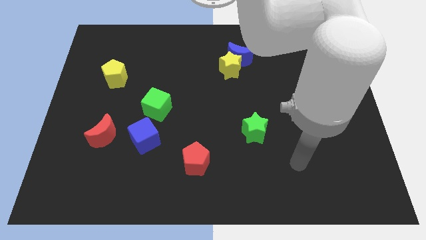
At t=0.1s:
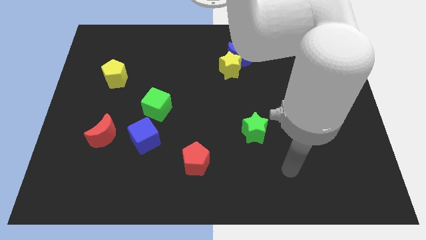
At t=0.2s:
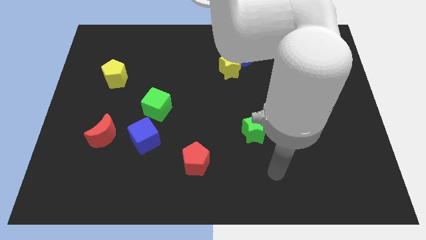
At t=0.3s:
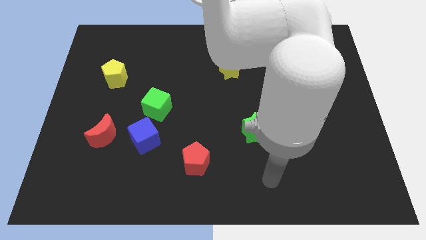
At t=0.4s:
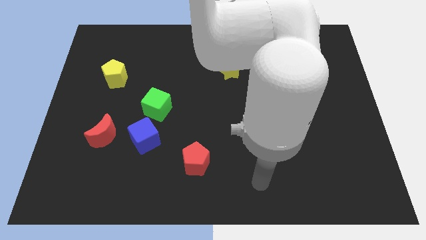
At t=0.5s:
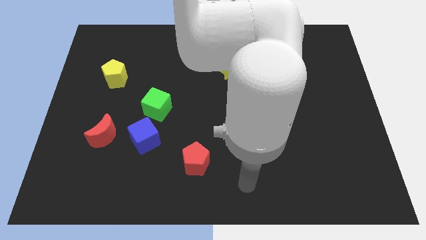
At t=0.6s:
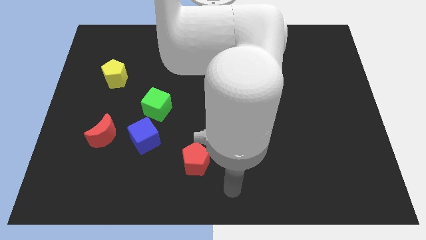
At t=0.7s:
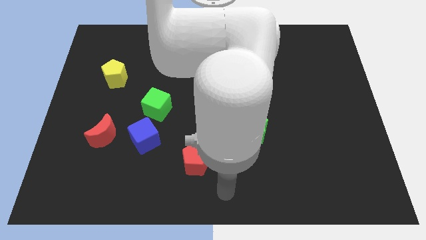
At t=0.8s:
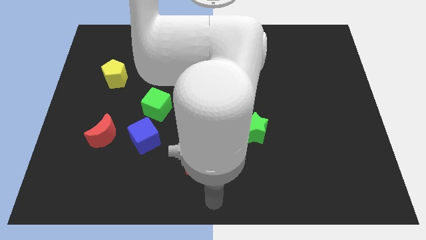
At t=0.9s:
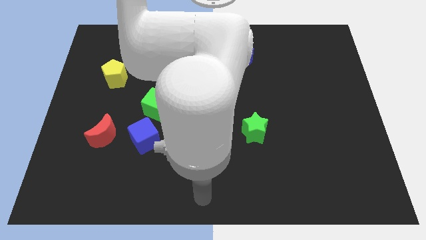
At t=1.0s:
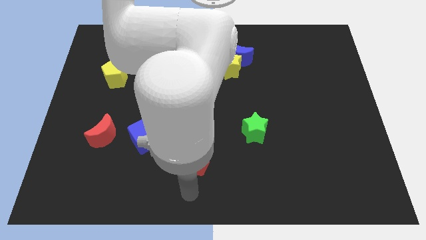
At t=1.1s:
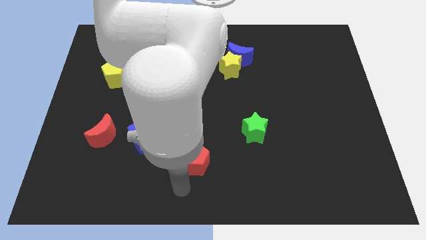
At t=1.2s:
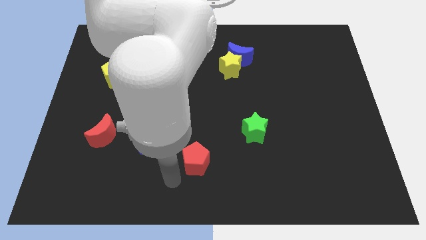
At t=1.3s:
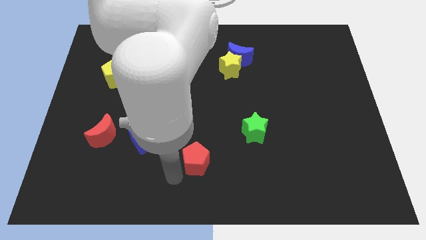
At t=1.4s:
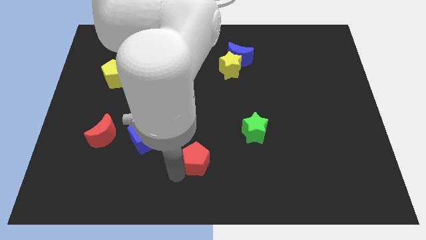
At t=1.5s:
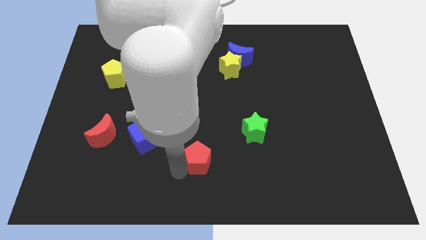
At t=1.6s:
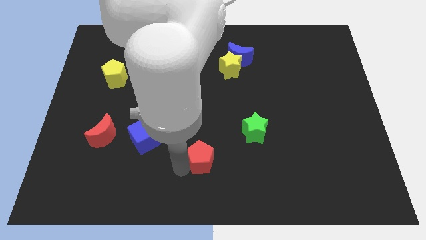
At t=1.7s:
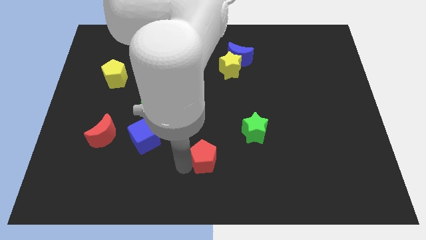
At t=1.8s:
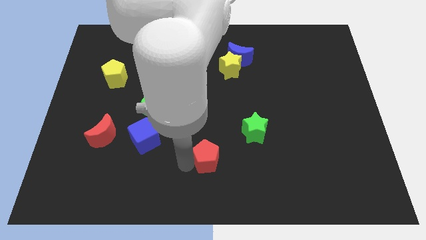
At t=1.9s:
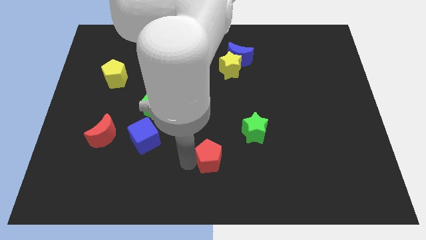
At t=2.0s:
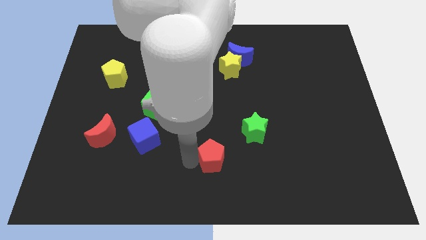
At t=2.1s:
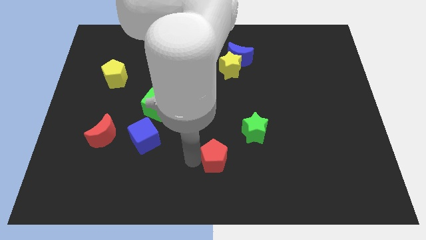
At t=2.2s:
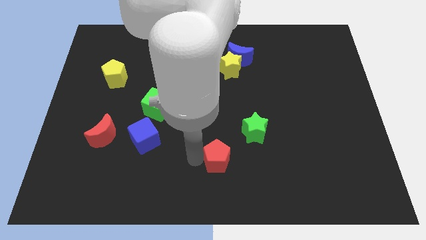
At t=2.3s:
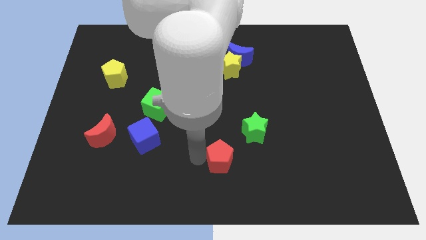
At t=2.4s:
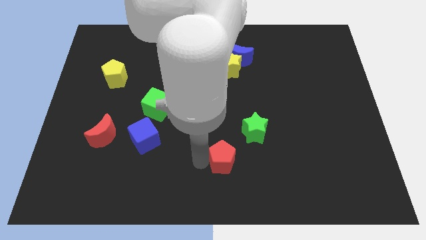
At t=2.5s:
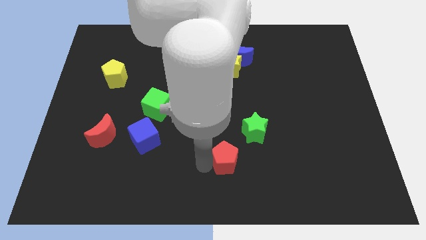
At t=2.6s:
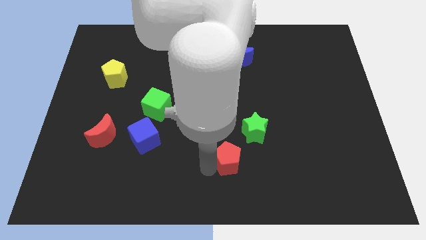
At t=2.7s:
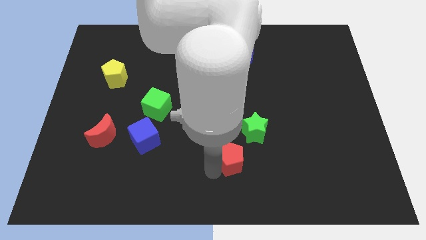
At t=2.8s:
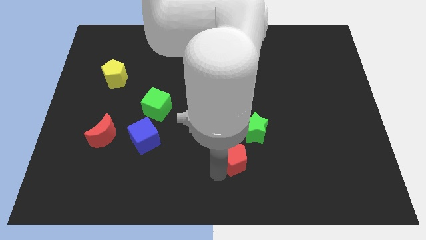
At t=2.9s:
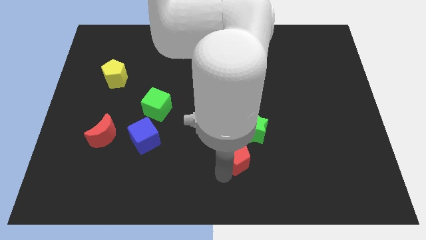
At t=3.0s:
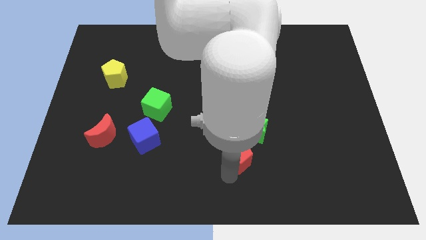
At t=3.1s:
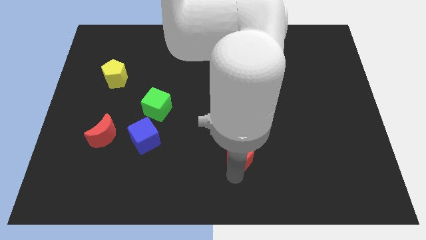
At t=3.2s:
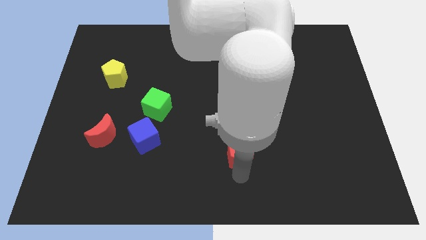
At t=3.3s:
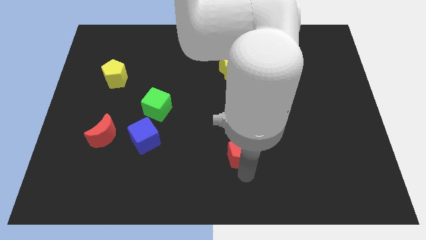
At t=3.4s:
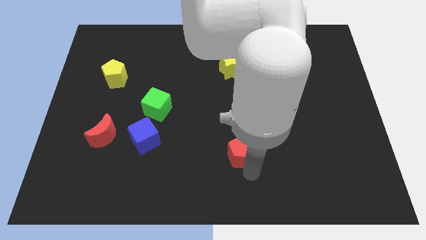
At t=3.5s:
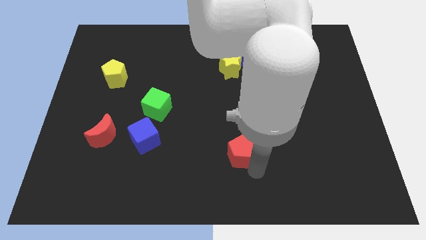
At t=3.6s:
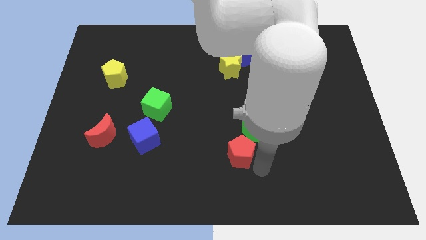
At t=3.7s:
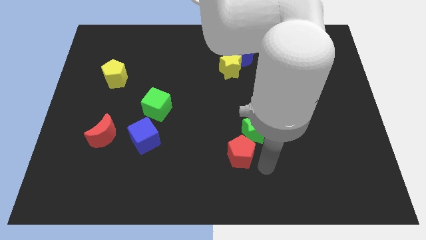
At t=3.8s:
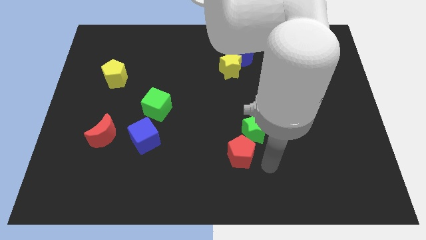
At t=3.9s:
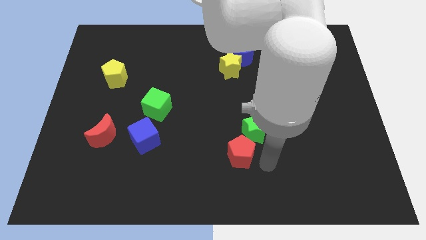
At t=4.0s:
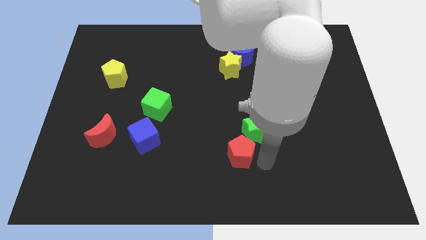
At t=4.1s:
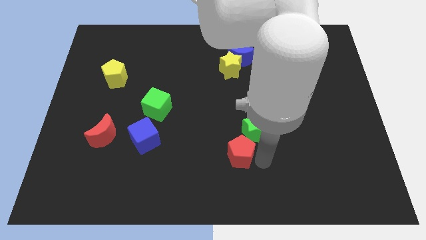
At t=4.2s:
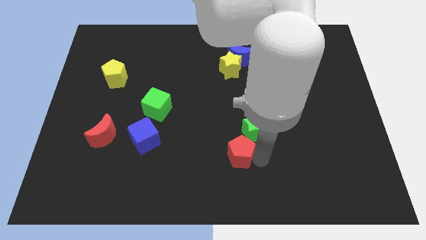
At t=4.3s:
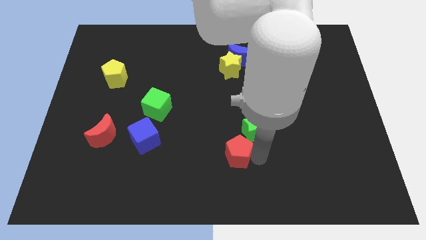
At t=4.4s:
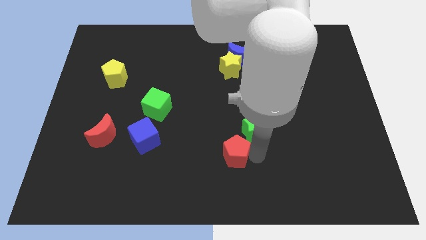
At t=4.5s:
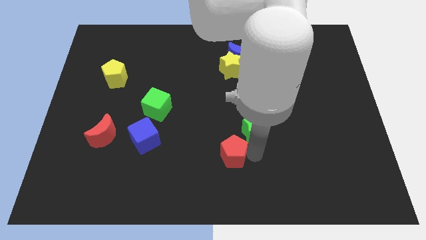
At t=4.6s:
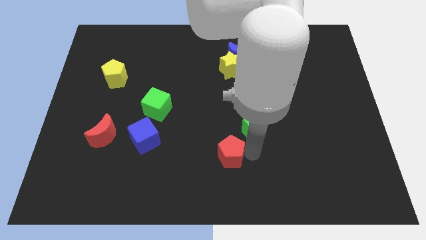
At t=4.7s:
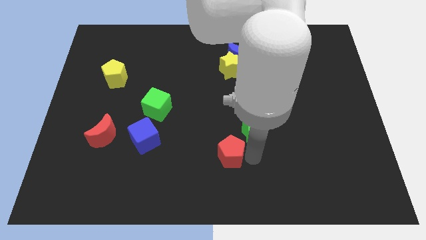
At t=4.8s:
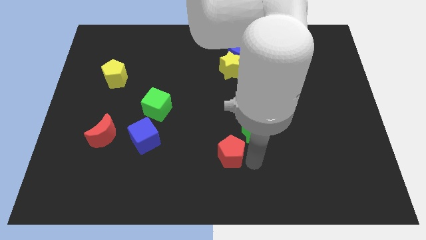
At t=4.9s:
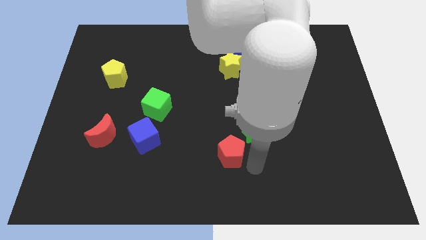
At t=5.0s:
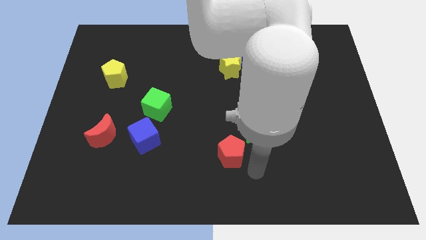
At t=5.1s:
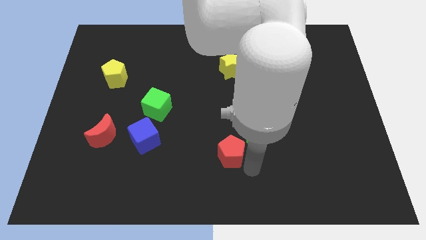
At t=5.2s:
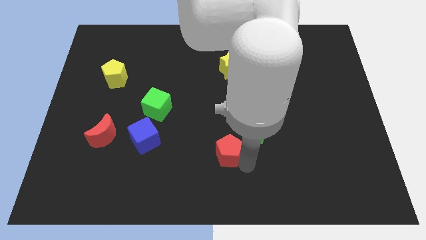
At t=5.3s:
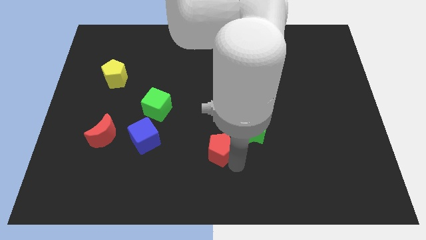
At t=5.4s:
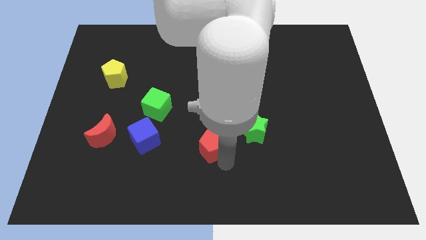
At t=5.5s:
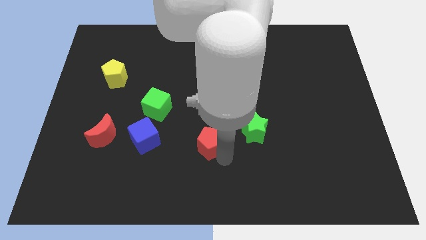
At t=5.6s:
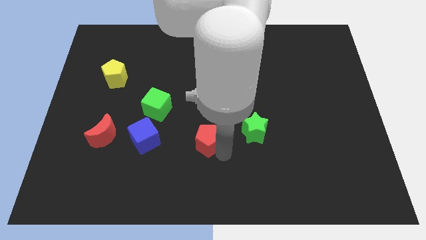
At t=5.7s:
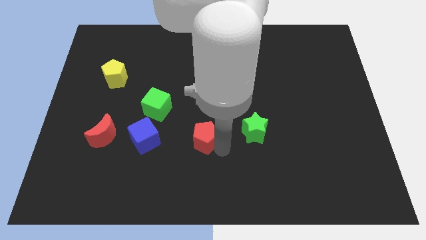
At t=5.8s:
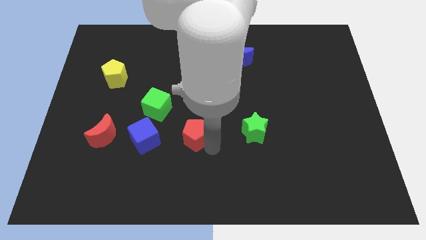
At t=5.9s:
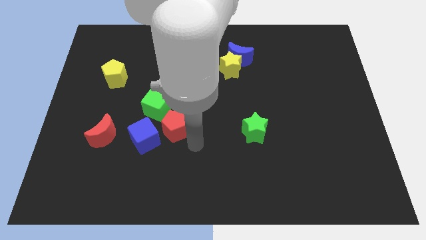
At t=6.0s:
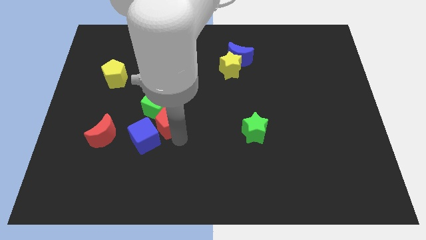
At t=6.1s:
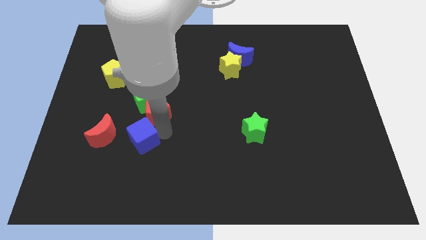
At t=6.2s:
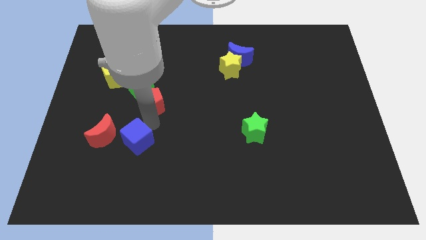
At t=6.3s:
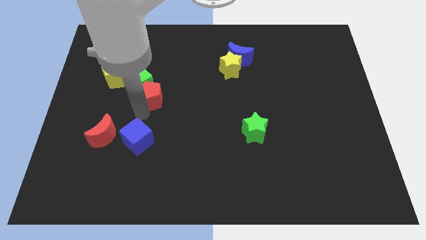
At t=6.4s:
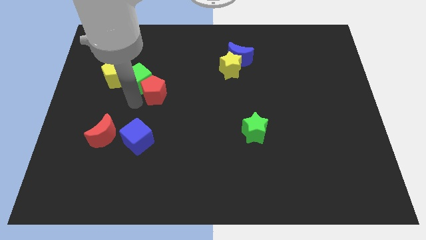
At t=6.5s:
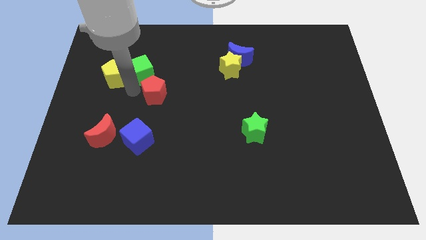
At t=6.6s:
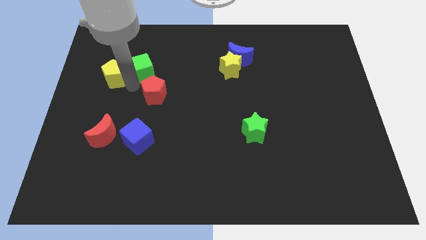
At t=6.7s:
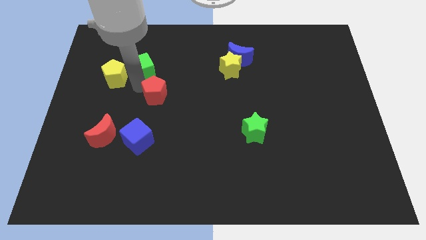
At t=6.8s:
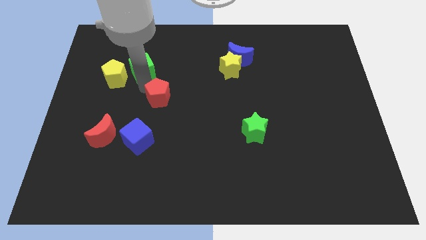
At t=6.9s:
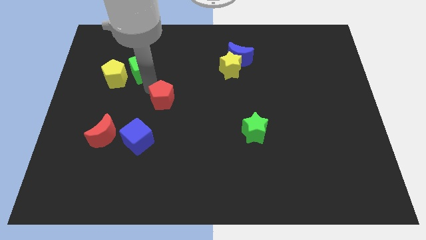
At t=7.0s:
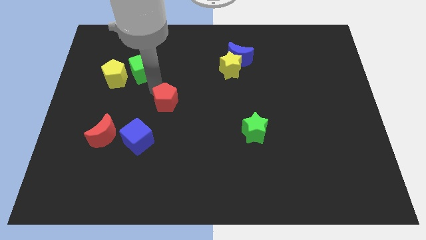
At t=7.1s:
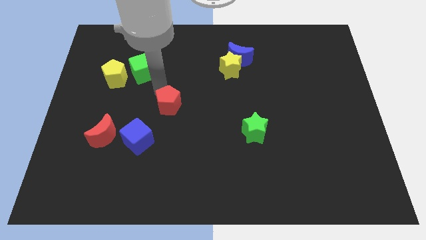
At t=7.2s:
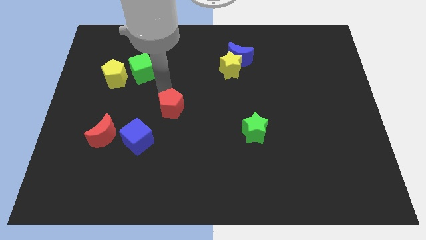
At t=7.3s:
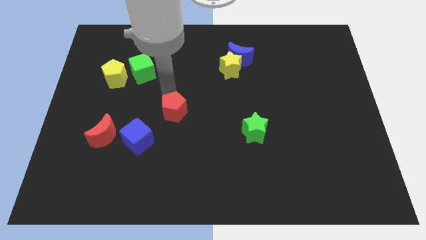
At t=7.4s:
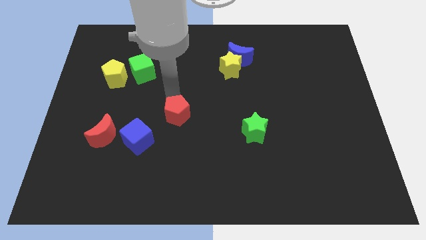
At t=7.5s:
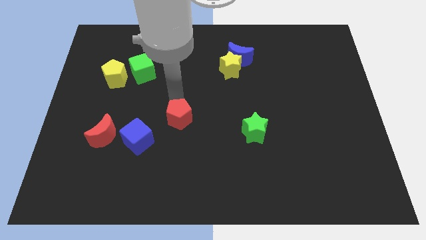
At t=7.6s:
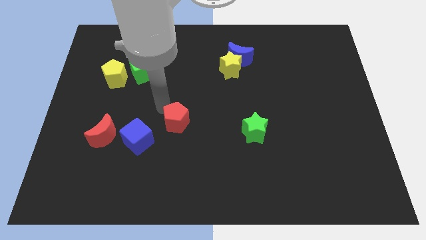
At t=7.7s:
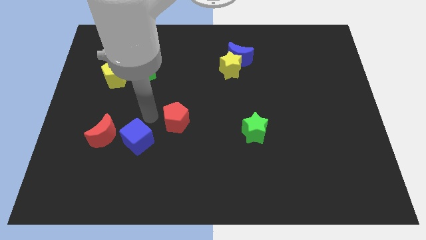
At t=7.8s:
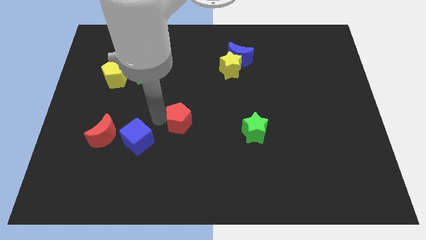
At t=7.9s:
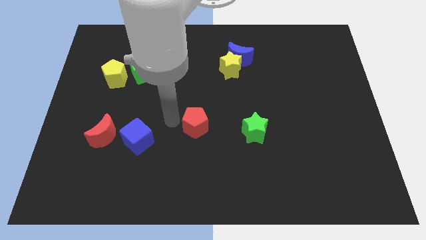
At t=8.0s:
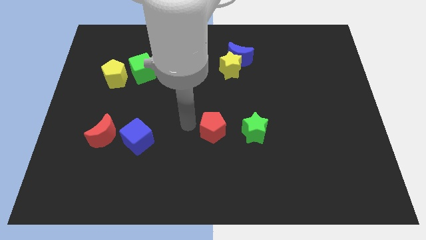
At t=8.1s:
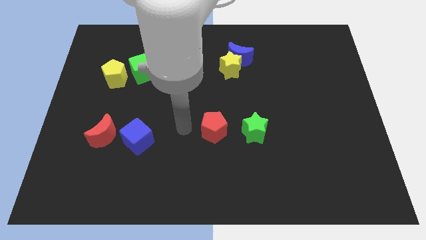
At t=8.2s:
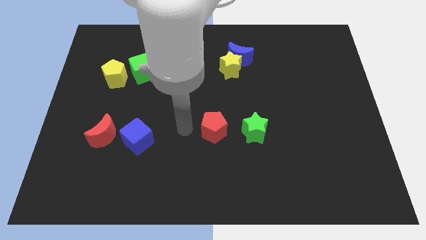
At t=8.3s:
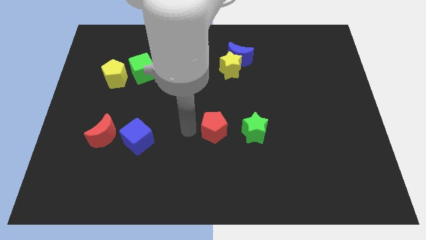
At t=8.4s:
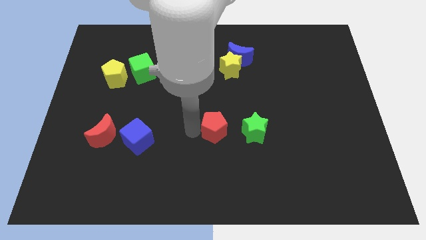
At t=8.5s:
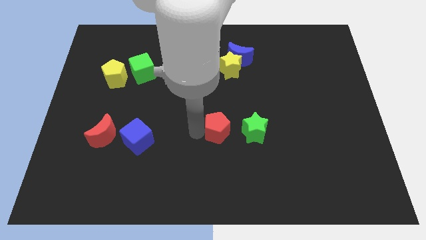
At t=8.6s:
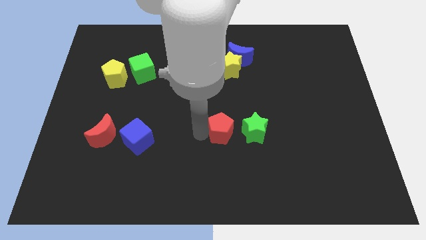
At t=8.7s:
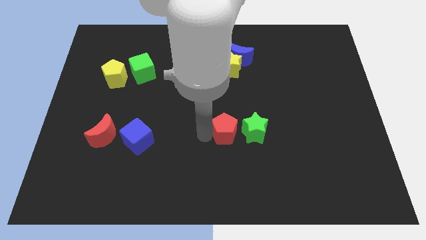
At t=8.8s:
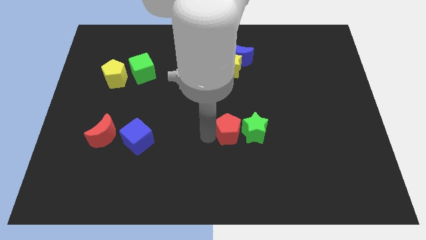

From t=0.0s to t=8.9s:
push the red pentagon next to the green star
